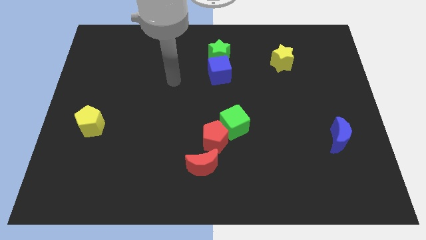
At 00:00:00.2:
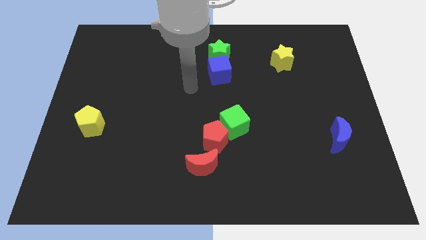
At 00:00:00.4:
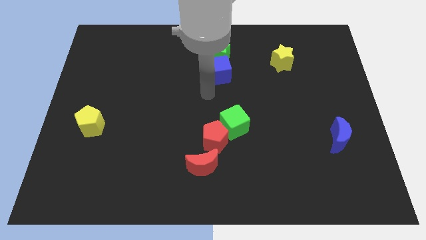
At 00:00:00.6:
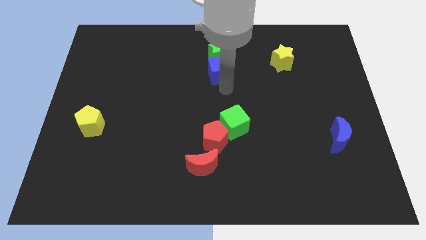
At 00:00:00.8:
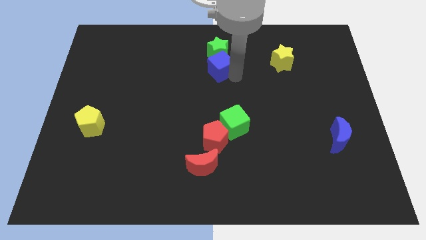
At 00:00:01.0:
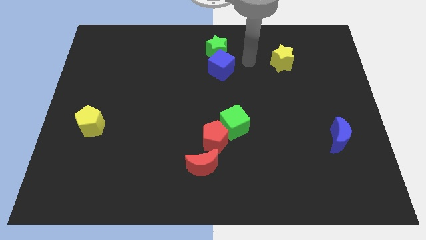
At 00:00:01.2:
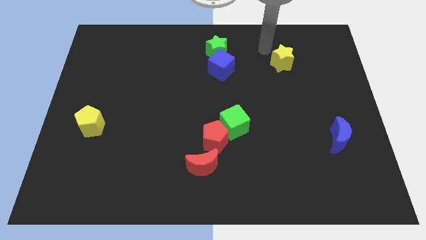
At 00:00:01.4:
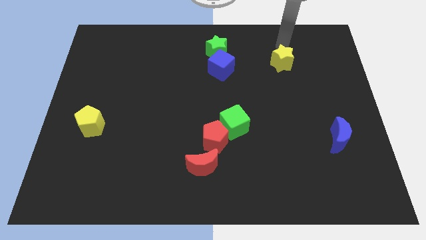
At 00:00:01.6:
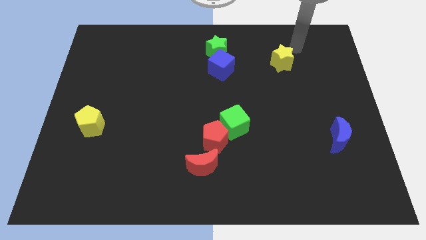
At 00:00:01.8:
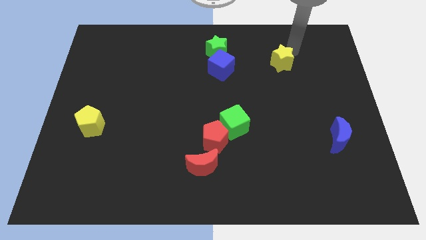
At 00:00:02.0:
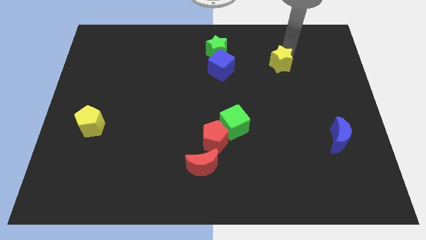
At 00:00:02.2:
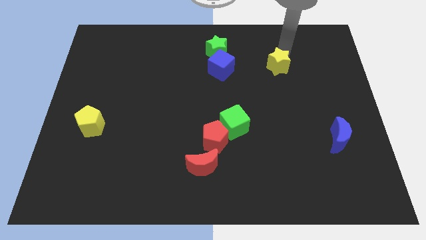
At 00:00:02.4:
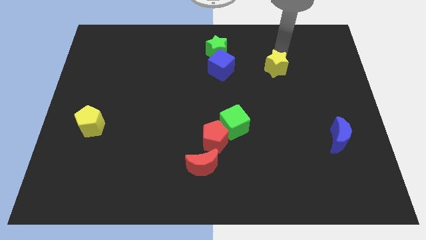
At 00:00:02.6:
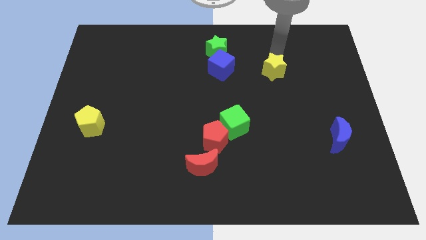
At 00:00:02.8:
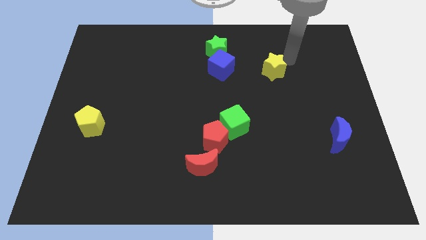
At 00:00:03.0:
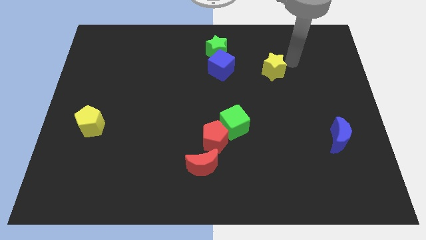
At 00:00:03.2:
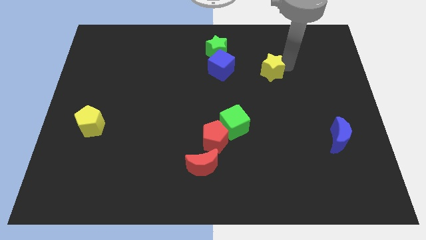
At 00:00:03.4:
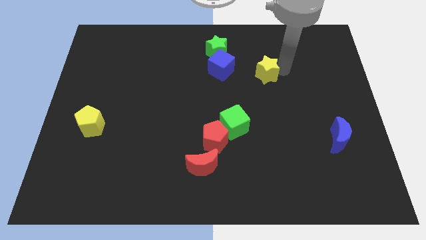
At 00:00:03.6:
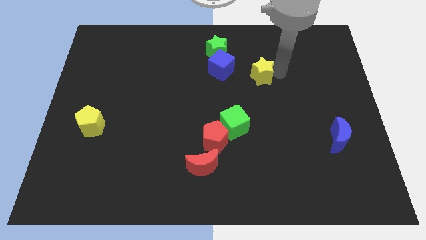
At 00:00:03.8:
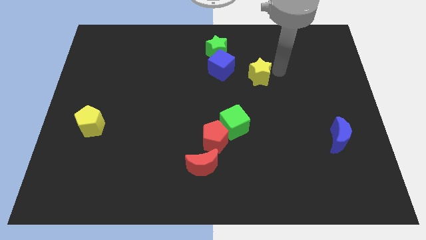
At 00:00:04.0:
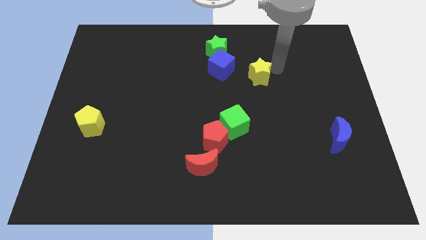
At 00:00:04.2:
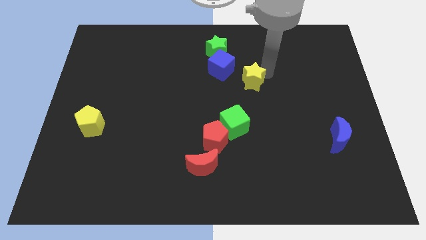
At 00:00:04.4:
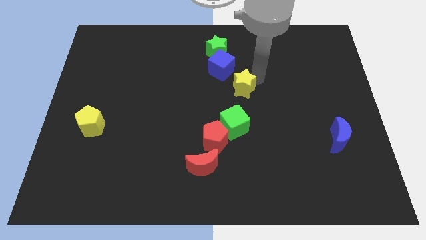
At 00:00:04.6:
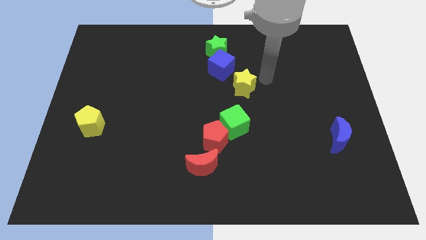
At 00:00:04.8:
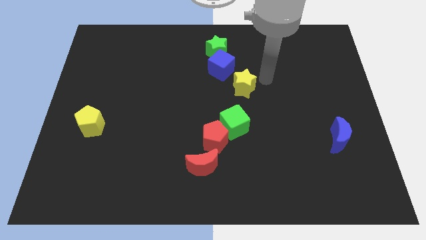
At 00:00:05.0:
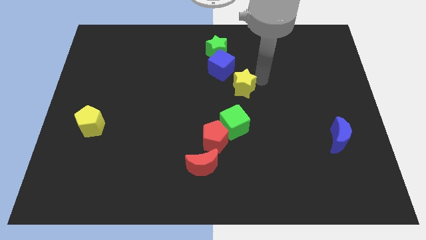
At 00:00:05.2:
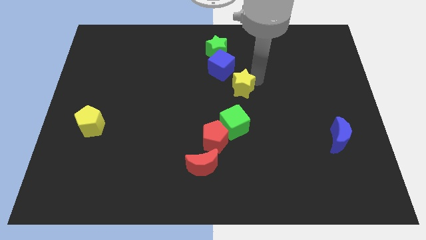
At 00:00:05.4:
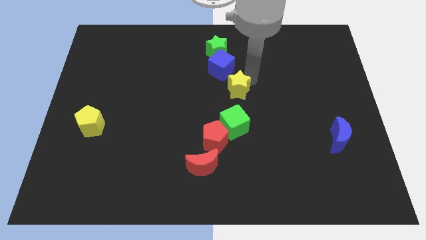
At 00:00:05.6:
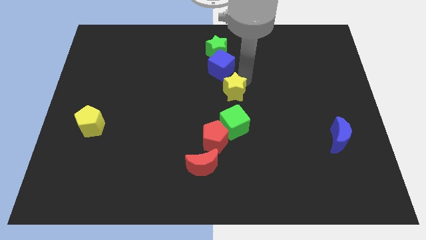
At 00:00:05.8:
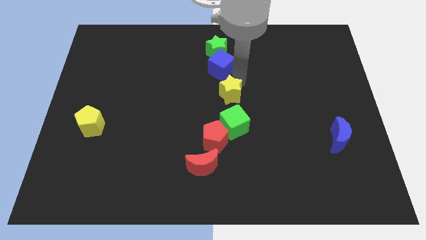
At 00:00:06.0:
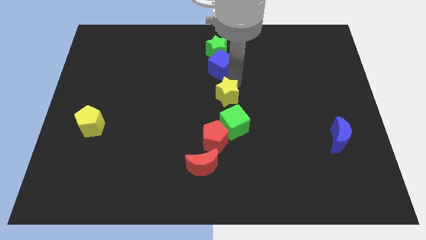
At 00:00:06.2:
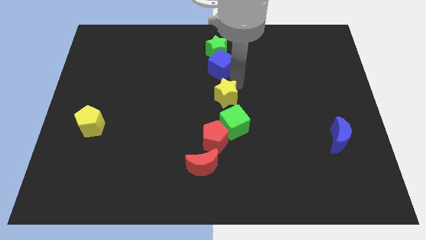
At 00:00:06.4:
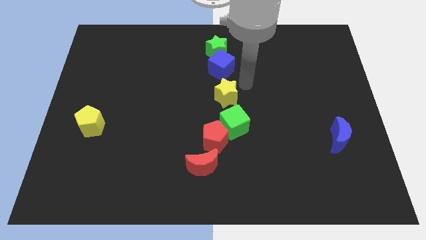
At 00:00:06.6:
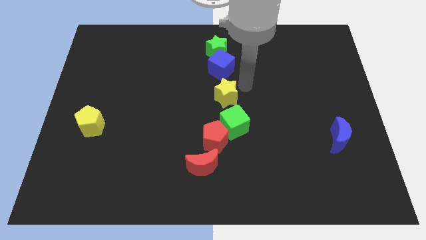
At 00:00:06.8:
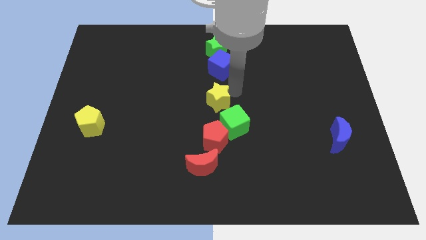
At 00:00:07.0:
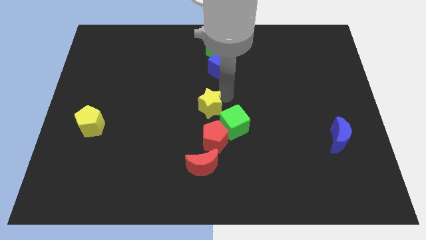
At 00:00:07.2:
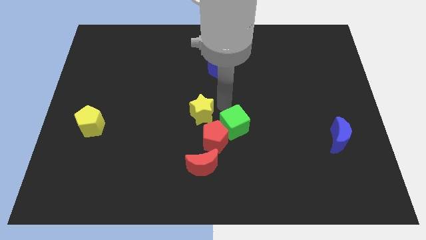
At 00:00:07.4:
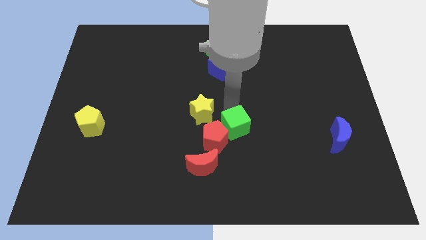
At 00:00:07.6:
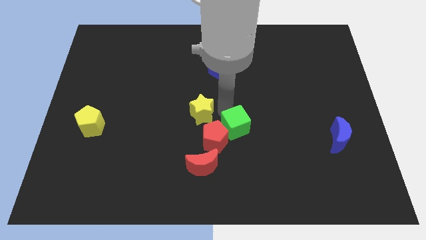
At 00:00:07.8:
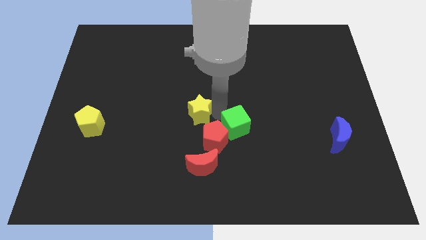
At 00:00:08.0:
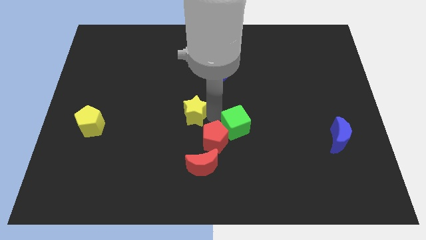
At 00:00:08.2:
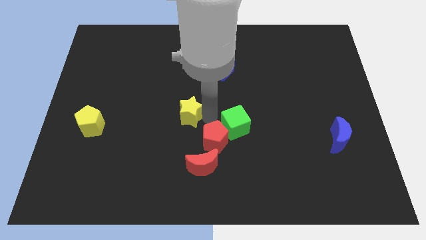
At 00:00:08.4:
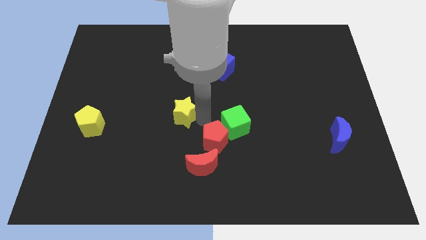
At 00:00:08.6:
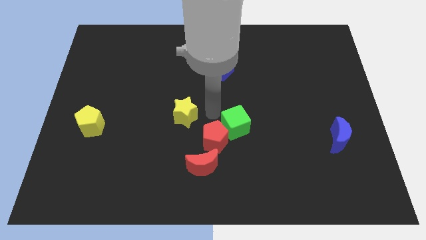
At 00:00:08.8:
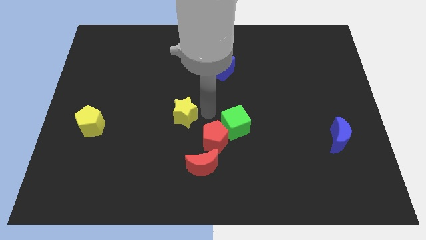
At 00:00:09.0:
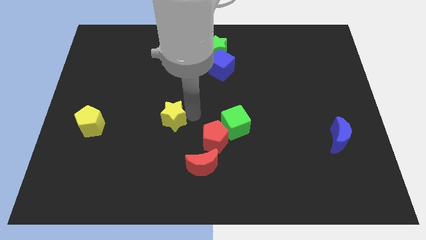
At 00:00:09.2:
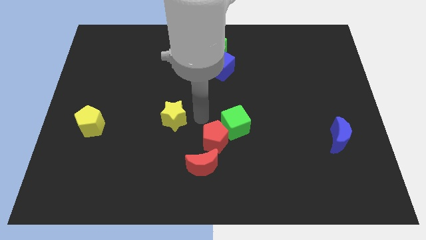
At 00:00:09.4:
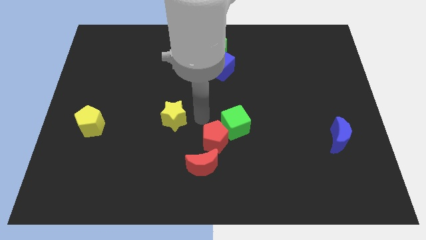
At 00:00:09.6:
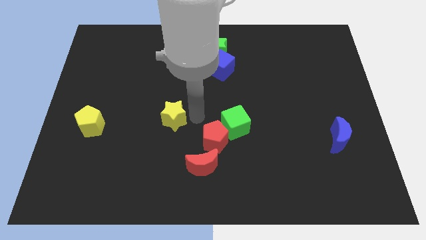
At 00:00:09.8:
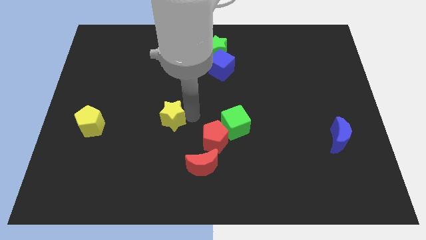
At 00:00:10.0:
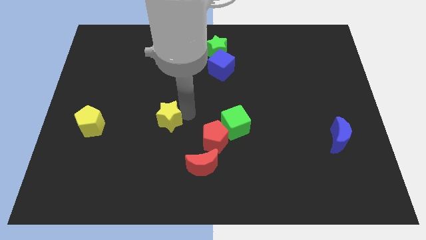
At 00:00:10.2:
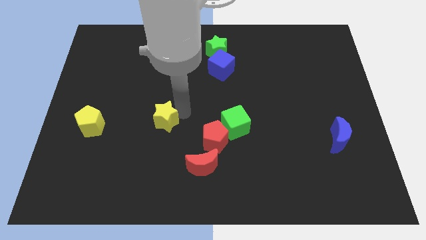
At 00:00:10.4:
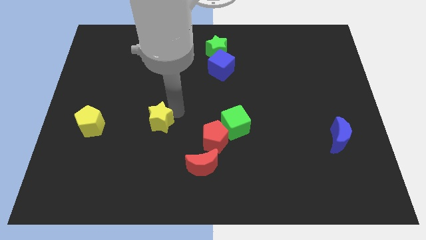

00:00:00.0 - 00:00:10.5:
push the yellow star right of the yellow pentagon

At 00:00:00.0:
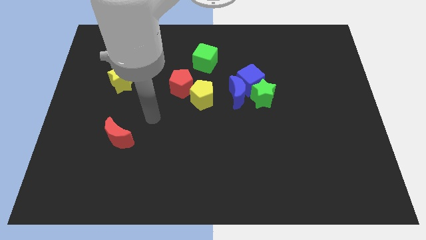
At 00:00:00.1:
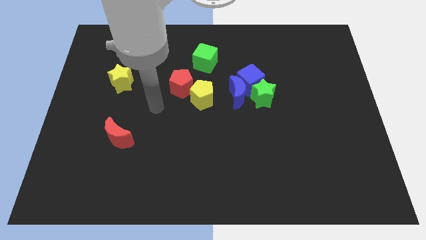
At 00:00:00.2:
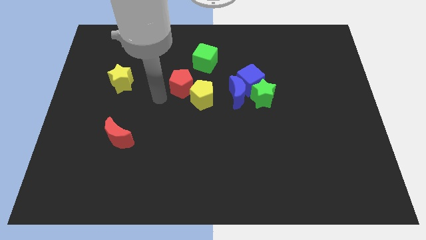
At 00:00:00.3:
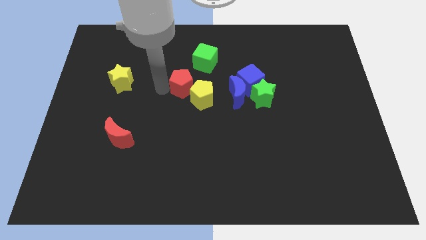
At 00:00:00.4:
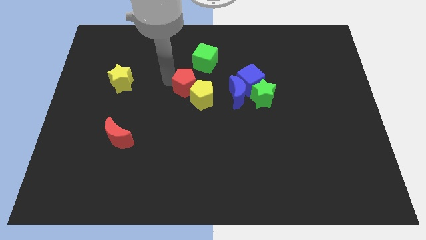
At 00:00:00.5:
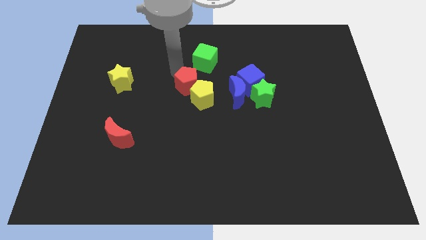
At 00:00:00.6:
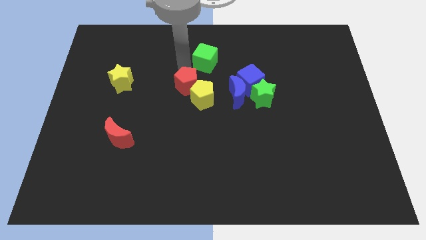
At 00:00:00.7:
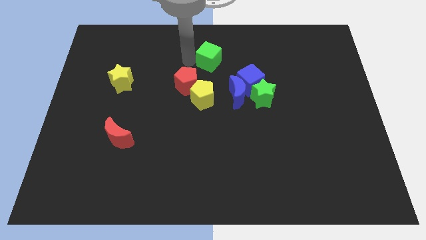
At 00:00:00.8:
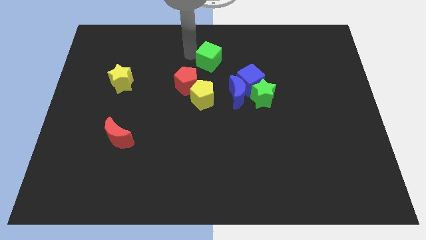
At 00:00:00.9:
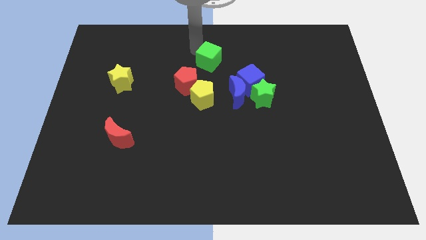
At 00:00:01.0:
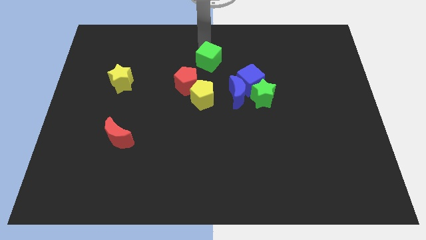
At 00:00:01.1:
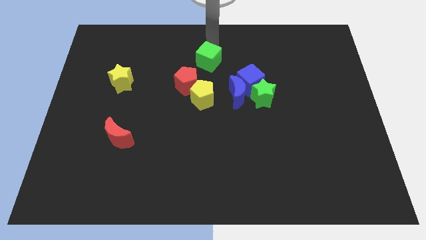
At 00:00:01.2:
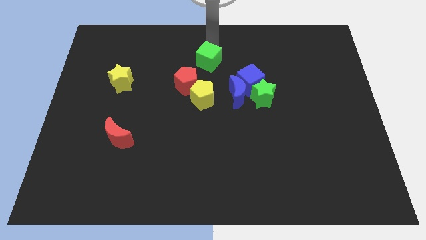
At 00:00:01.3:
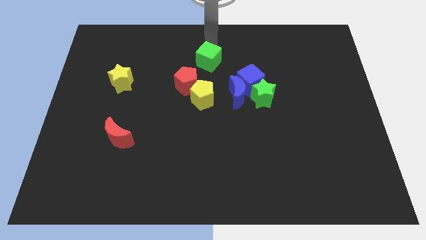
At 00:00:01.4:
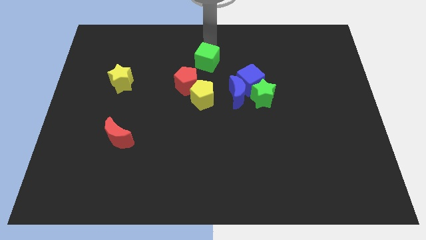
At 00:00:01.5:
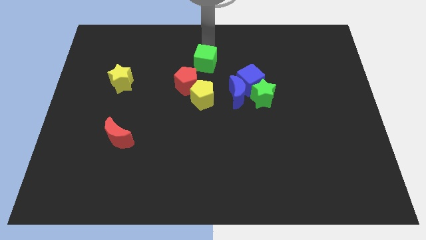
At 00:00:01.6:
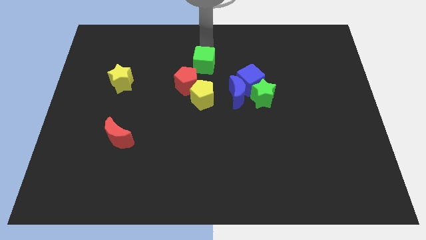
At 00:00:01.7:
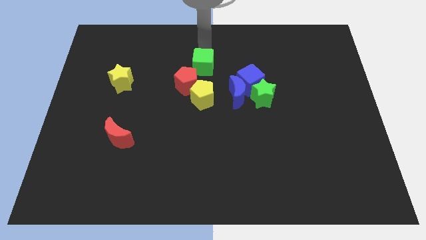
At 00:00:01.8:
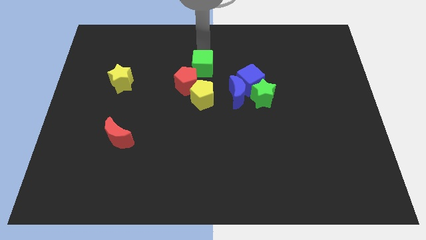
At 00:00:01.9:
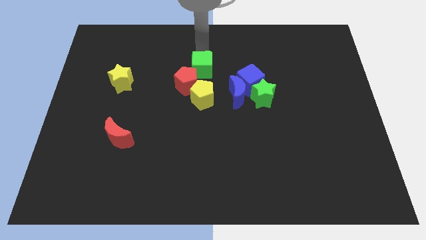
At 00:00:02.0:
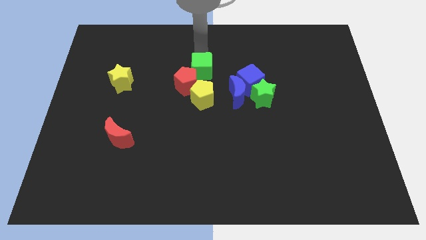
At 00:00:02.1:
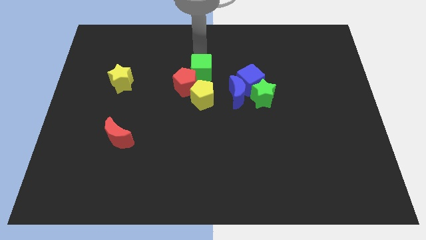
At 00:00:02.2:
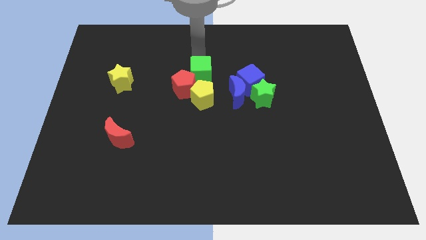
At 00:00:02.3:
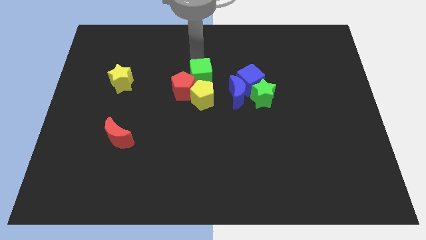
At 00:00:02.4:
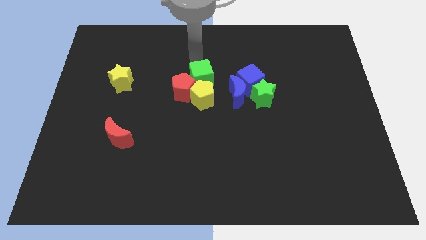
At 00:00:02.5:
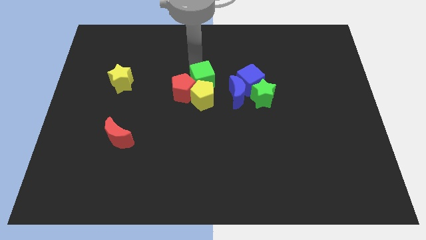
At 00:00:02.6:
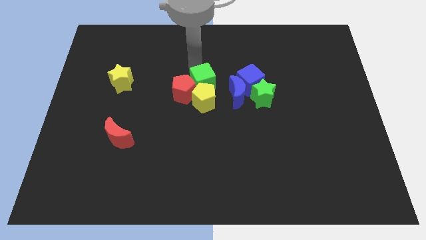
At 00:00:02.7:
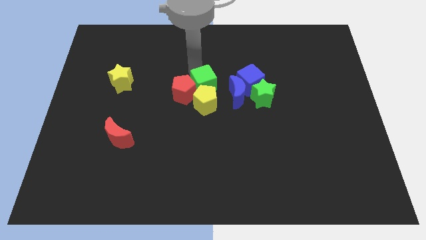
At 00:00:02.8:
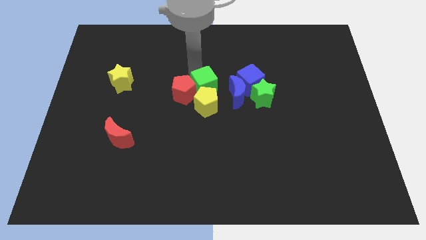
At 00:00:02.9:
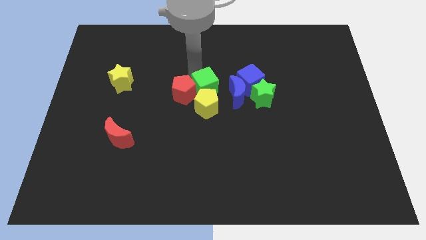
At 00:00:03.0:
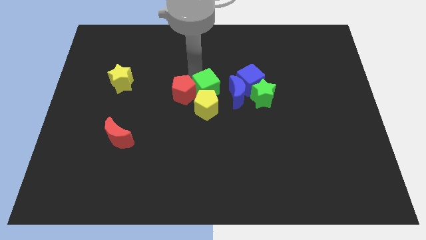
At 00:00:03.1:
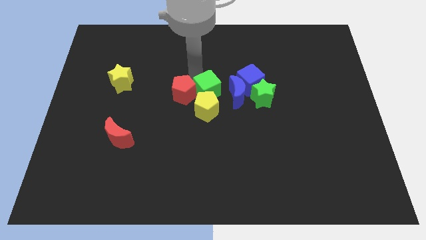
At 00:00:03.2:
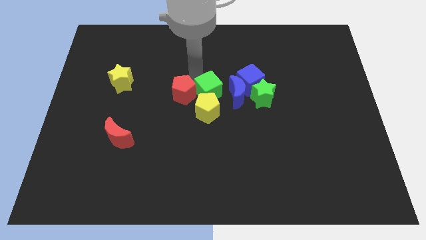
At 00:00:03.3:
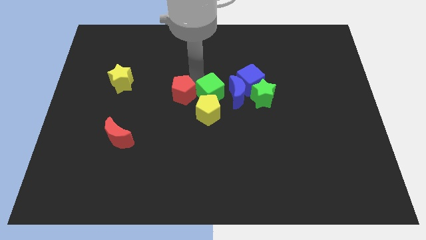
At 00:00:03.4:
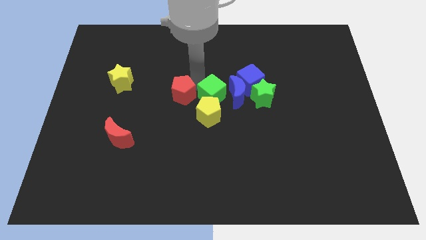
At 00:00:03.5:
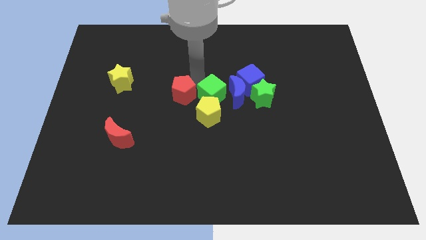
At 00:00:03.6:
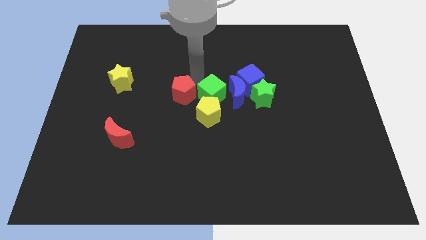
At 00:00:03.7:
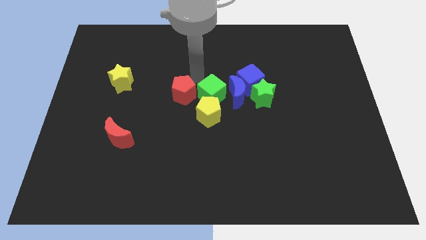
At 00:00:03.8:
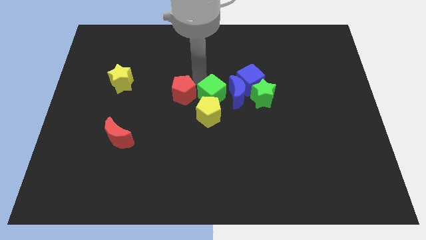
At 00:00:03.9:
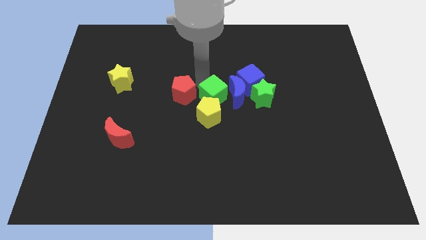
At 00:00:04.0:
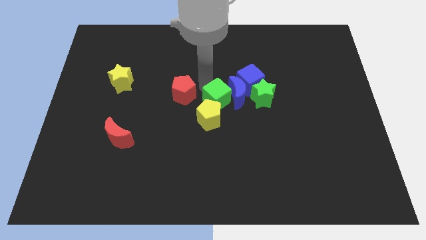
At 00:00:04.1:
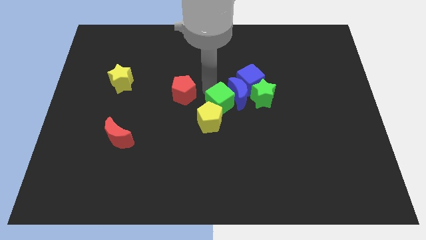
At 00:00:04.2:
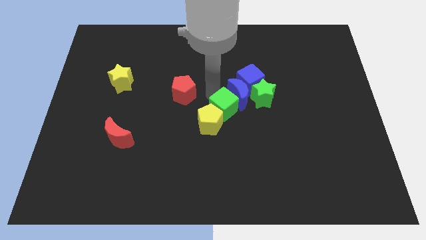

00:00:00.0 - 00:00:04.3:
put the green cube diagonally down and to the left of the green star
